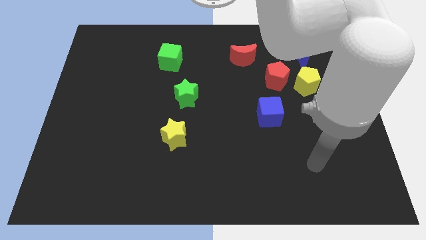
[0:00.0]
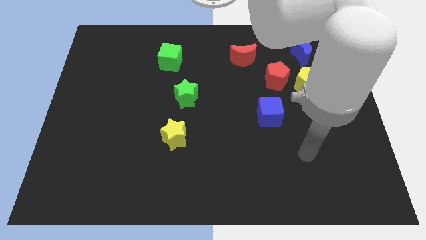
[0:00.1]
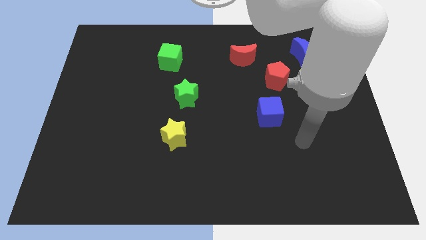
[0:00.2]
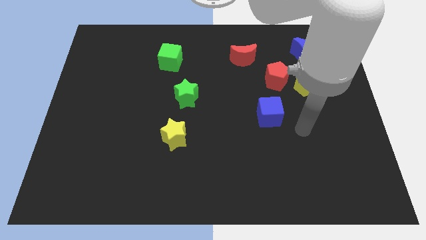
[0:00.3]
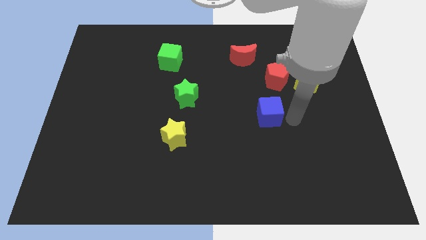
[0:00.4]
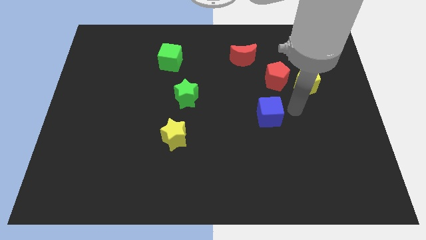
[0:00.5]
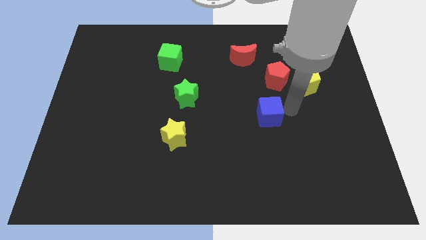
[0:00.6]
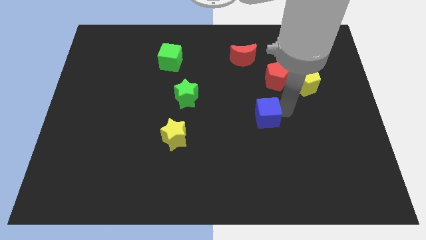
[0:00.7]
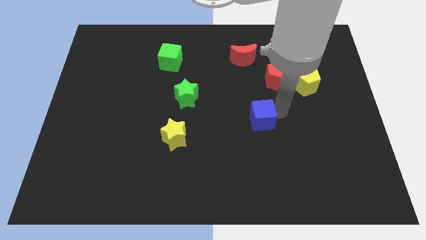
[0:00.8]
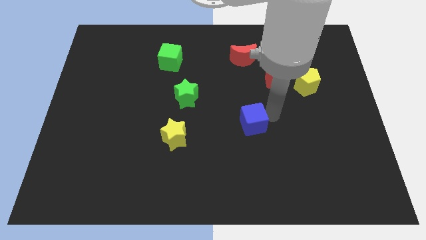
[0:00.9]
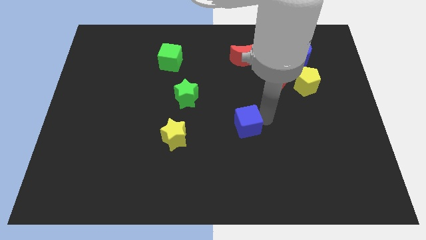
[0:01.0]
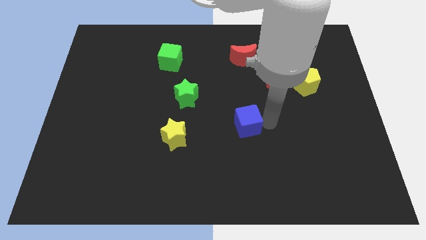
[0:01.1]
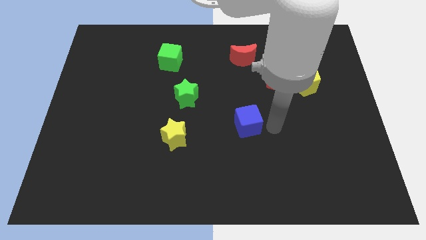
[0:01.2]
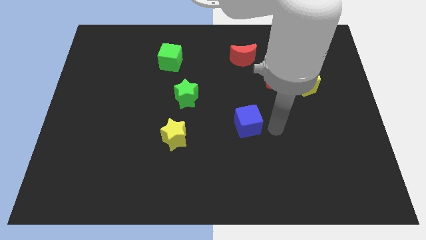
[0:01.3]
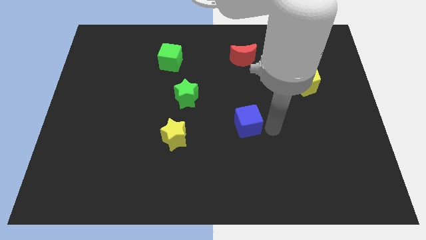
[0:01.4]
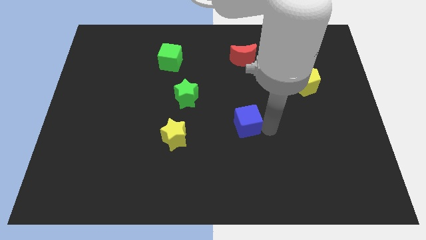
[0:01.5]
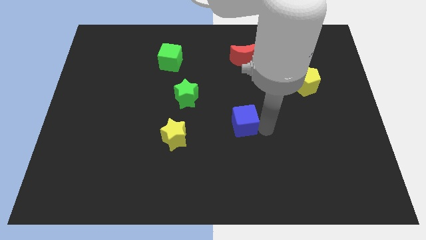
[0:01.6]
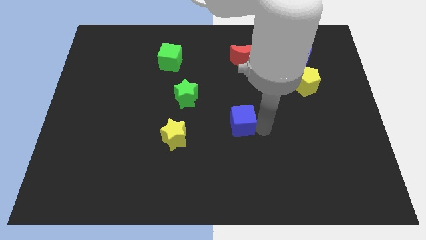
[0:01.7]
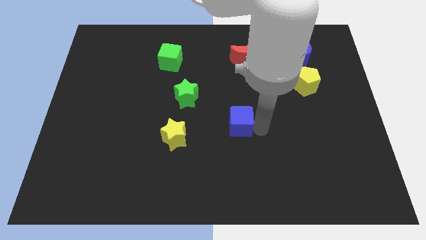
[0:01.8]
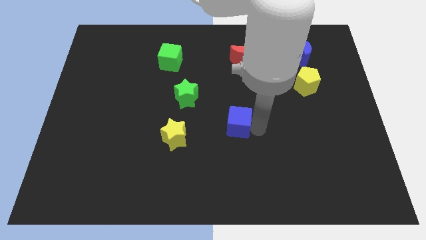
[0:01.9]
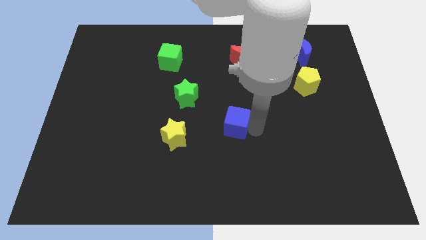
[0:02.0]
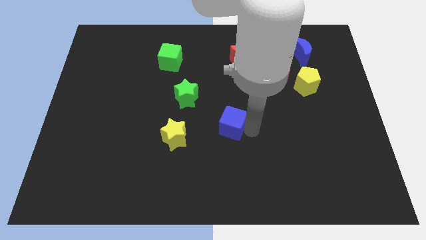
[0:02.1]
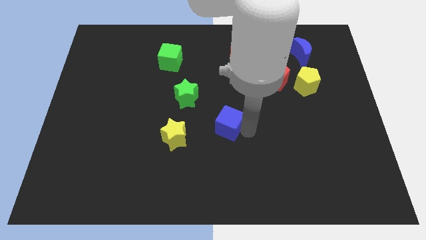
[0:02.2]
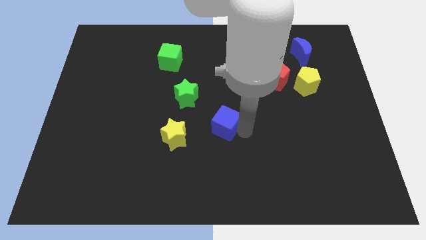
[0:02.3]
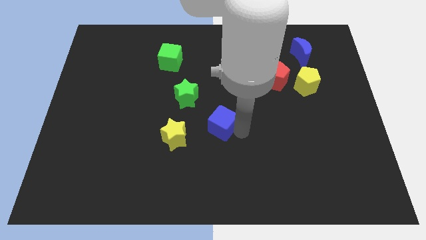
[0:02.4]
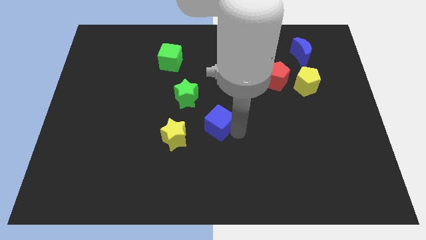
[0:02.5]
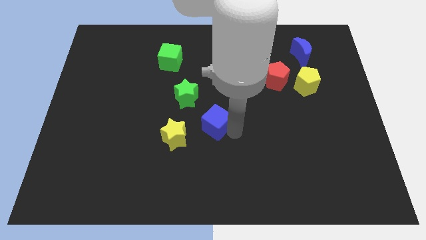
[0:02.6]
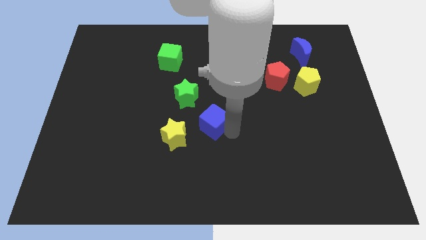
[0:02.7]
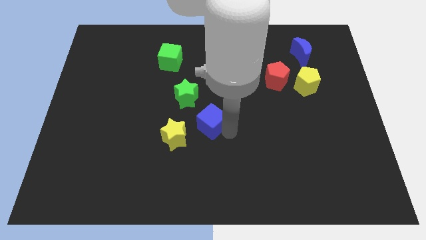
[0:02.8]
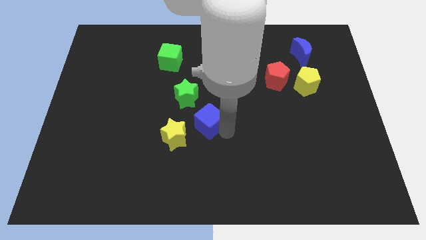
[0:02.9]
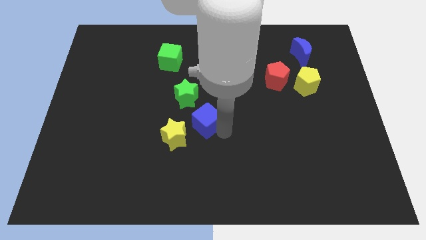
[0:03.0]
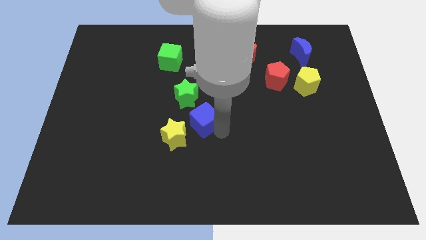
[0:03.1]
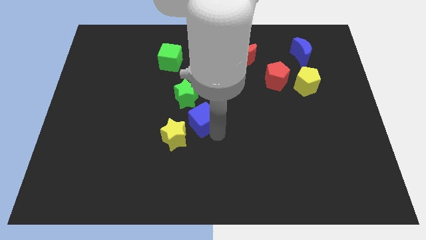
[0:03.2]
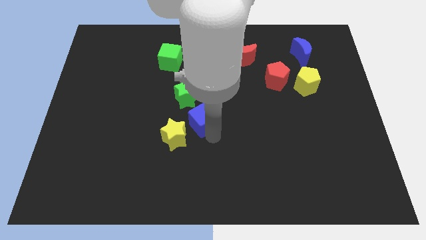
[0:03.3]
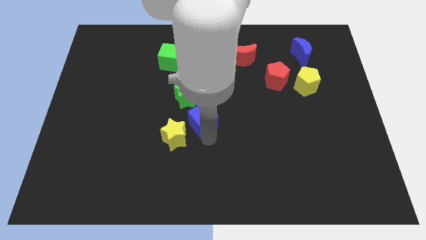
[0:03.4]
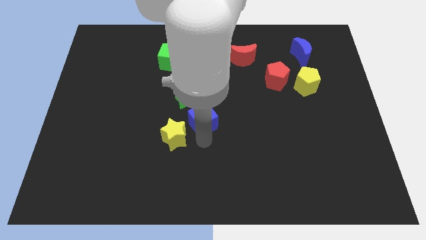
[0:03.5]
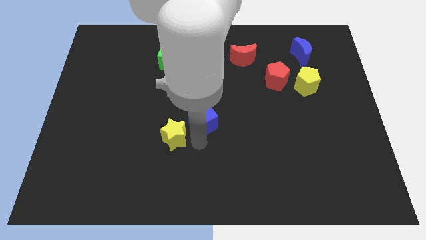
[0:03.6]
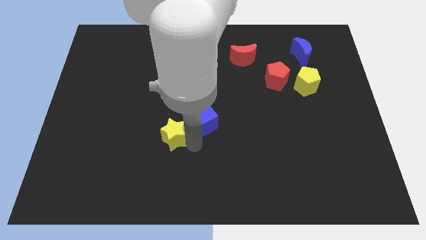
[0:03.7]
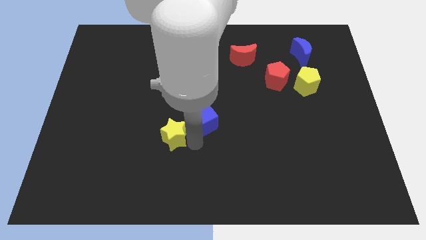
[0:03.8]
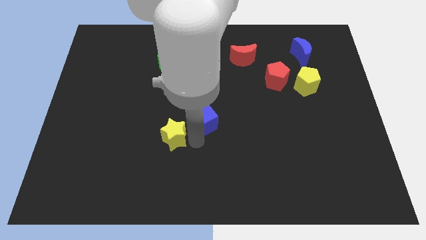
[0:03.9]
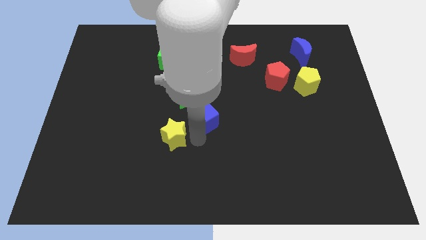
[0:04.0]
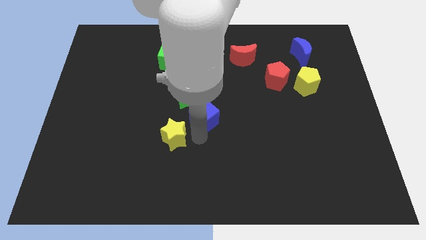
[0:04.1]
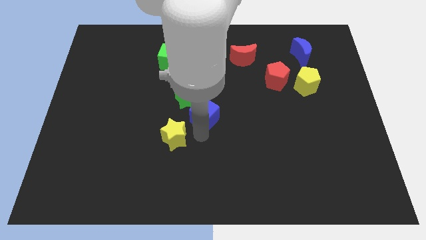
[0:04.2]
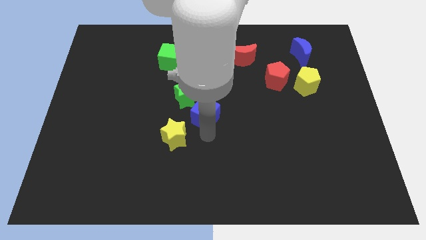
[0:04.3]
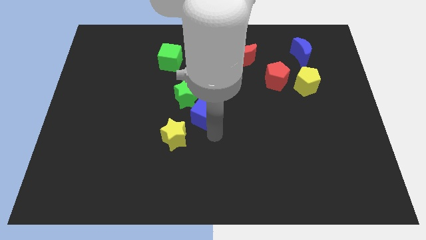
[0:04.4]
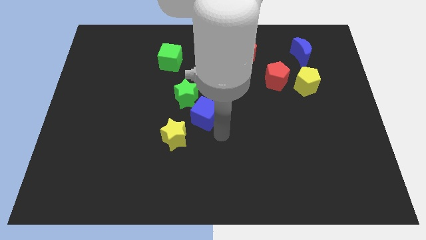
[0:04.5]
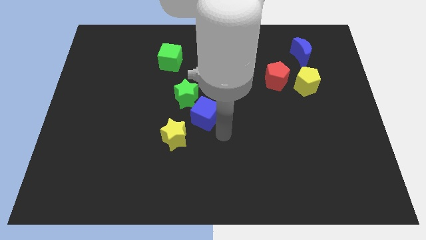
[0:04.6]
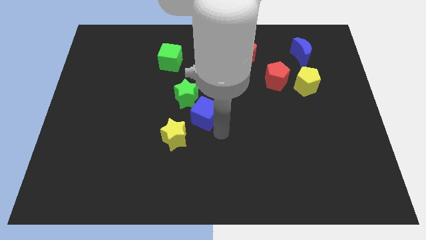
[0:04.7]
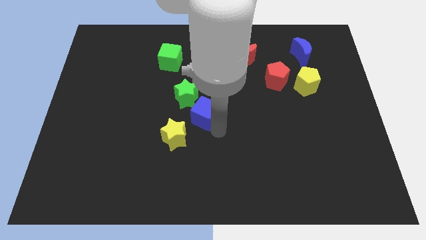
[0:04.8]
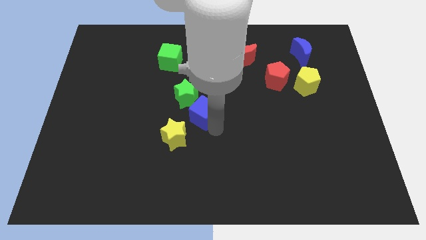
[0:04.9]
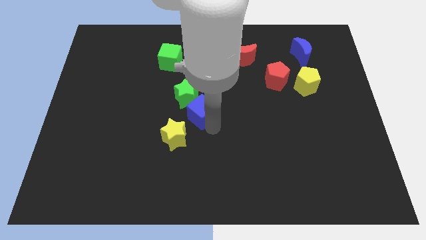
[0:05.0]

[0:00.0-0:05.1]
put the blue cube towards the green star

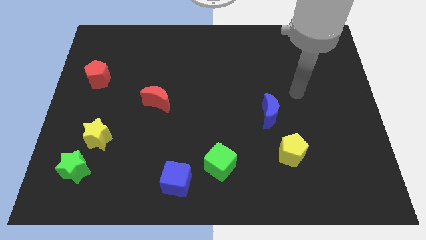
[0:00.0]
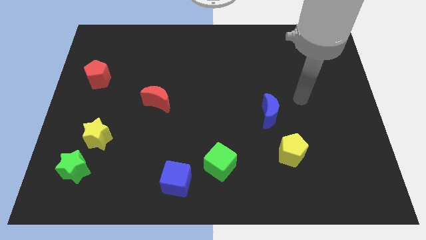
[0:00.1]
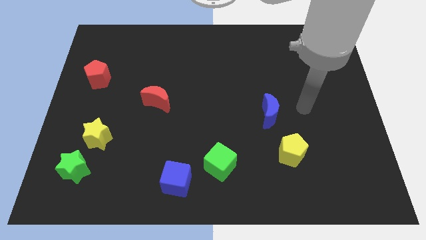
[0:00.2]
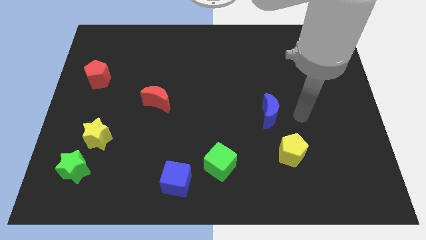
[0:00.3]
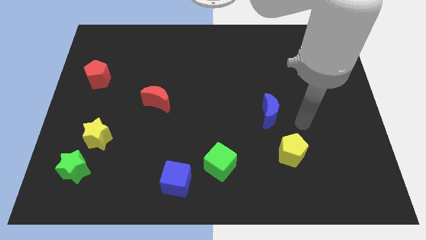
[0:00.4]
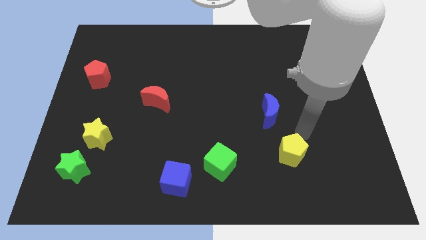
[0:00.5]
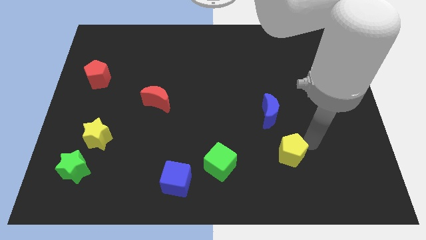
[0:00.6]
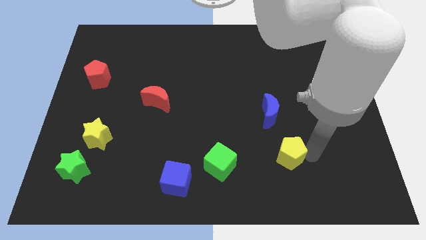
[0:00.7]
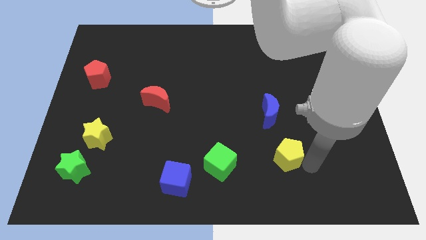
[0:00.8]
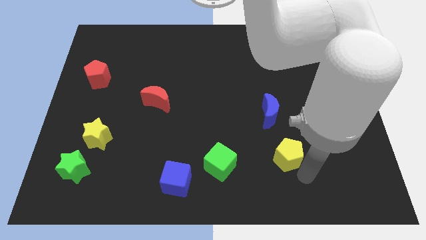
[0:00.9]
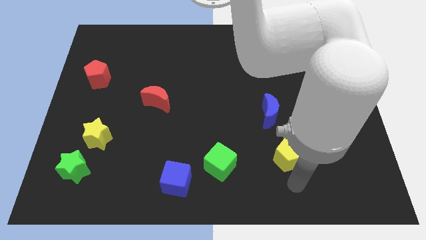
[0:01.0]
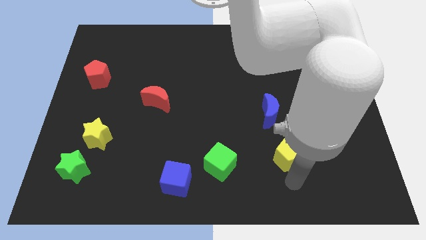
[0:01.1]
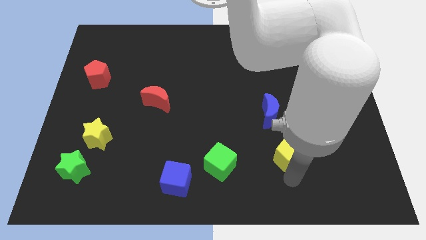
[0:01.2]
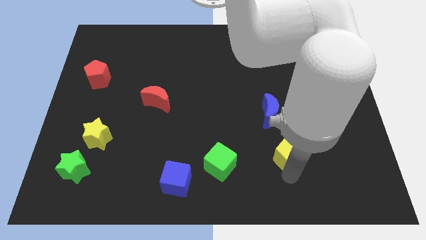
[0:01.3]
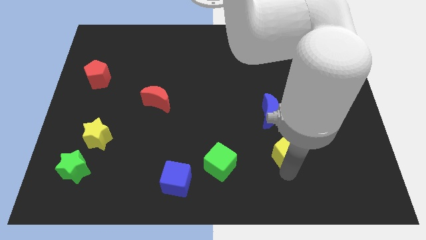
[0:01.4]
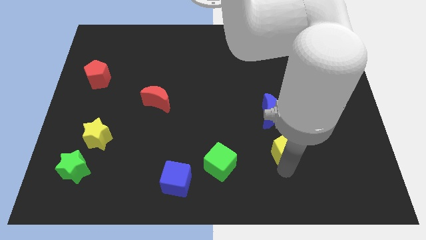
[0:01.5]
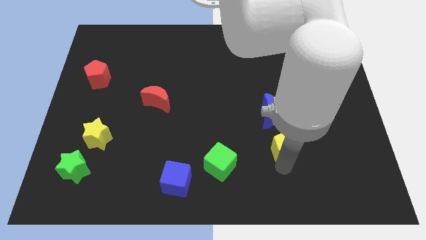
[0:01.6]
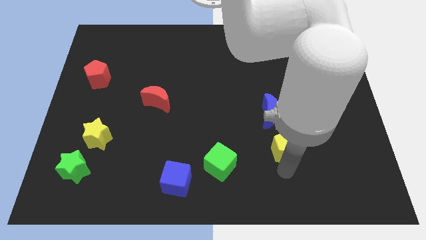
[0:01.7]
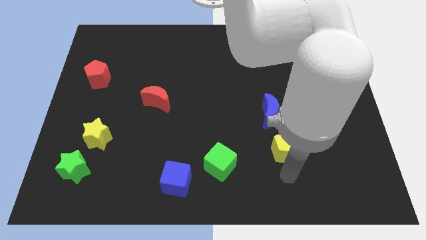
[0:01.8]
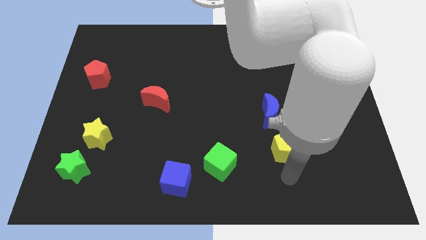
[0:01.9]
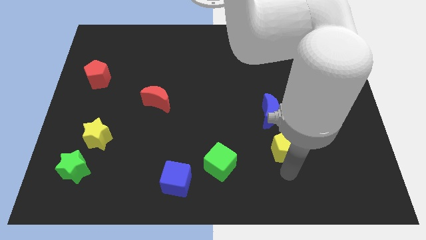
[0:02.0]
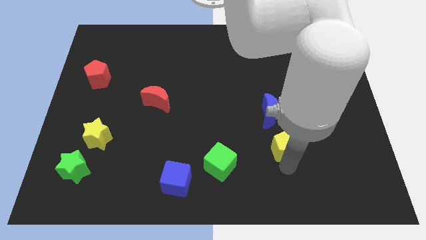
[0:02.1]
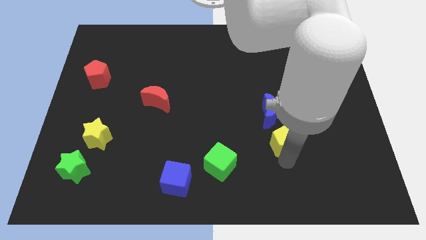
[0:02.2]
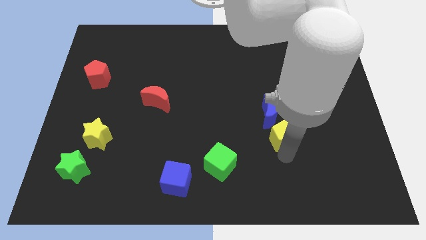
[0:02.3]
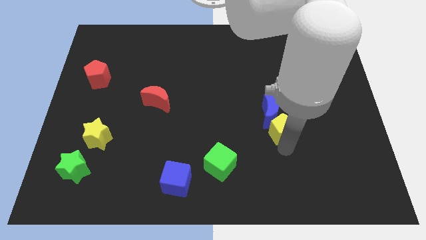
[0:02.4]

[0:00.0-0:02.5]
move the yellow pentagon towards the blue moon
